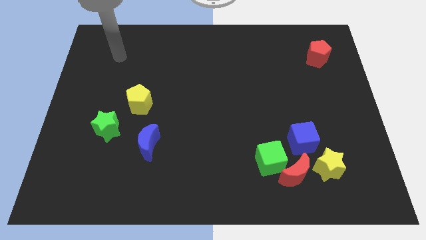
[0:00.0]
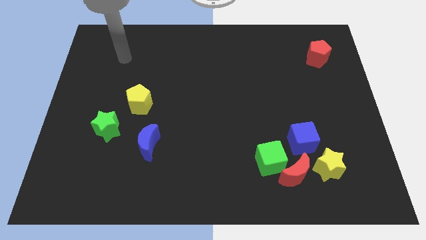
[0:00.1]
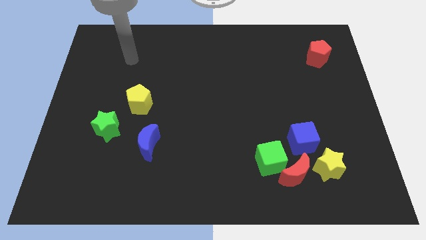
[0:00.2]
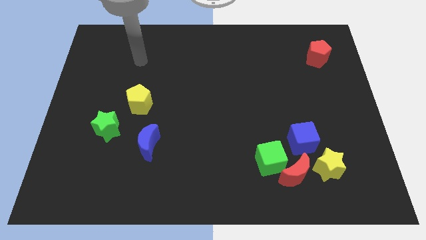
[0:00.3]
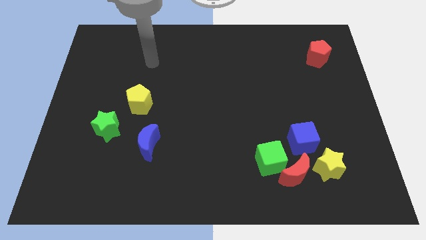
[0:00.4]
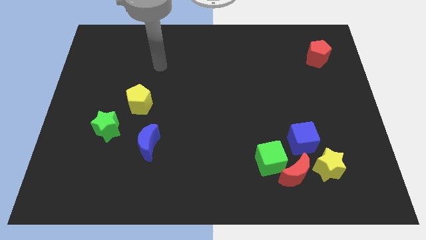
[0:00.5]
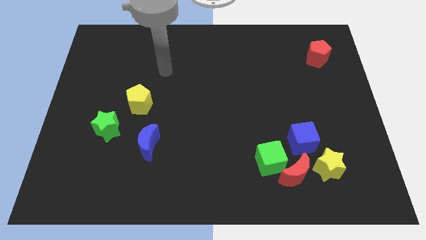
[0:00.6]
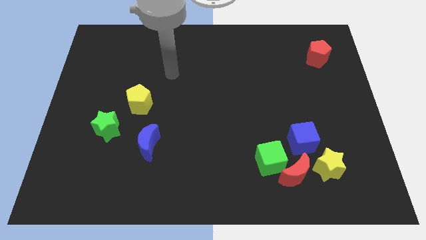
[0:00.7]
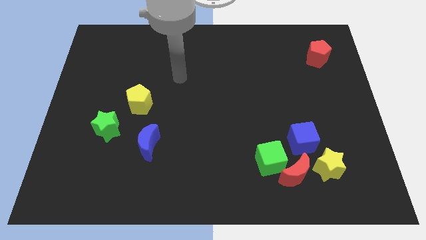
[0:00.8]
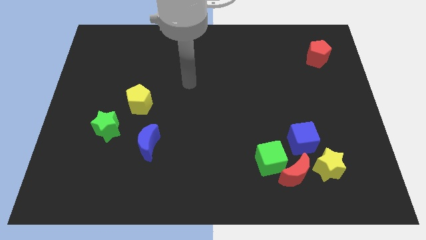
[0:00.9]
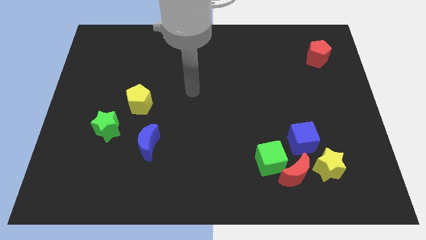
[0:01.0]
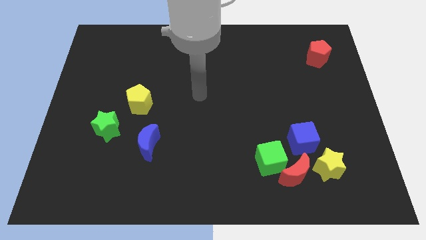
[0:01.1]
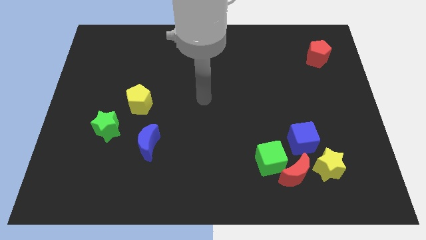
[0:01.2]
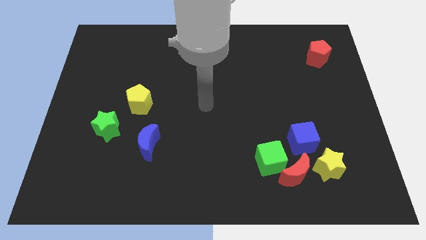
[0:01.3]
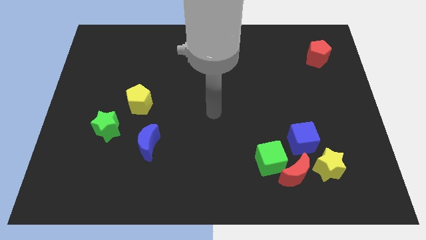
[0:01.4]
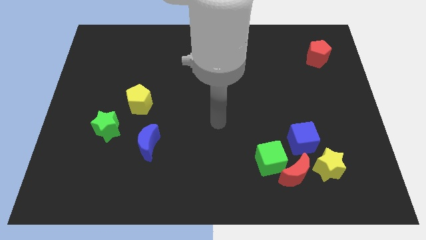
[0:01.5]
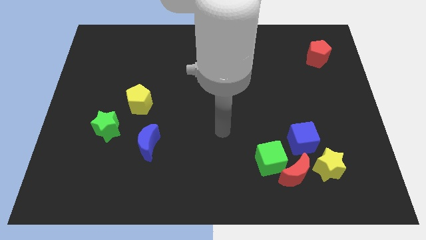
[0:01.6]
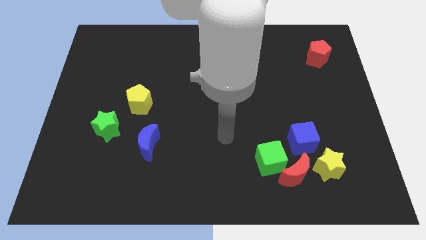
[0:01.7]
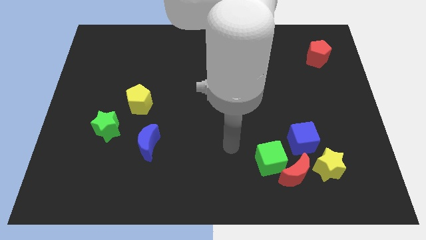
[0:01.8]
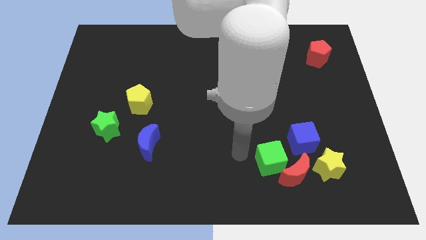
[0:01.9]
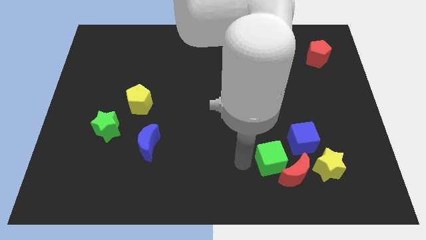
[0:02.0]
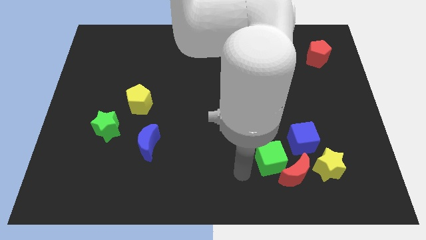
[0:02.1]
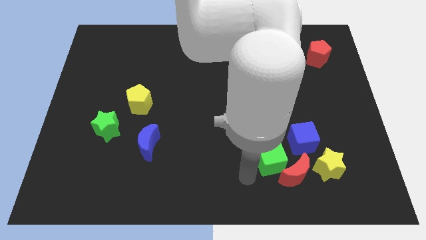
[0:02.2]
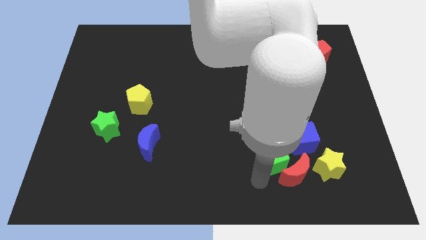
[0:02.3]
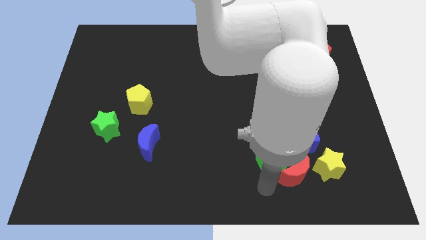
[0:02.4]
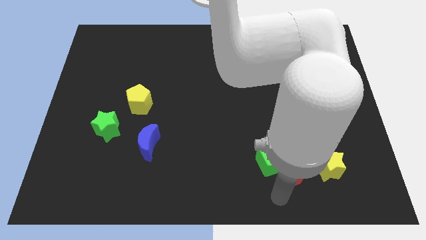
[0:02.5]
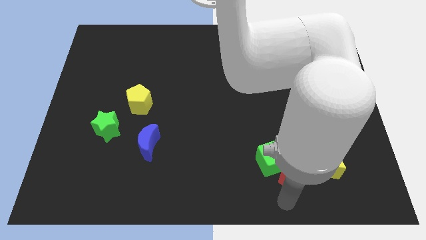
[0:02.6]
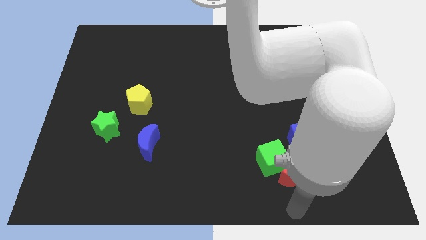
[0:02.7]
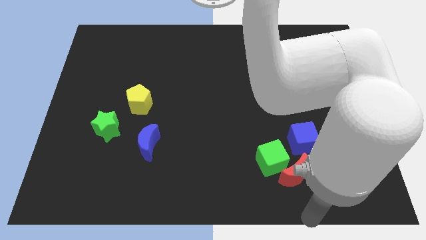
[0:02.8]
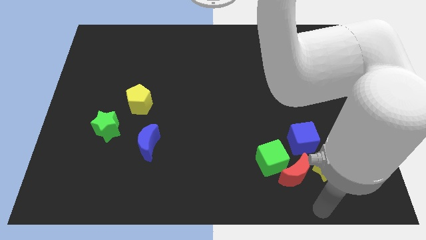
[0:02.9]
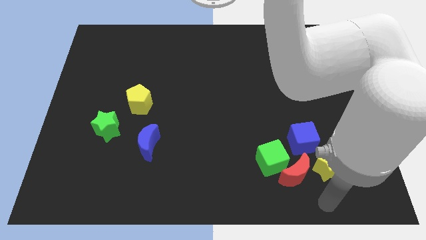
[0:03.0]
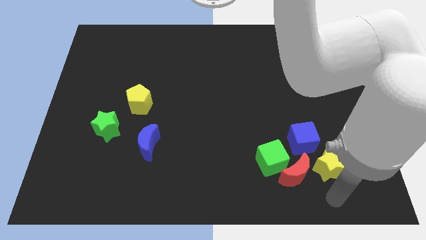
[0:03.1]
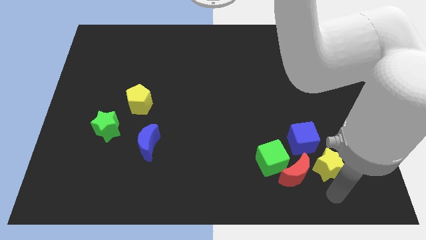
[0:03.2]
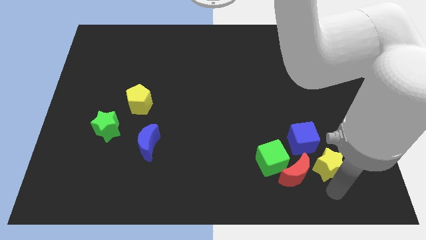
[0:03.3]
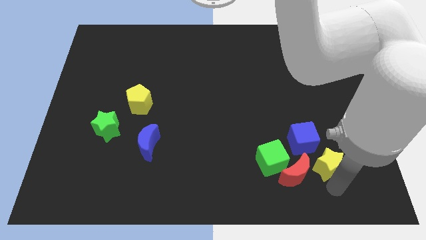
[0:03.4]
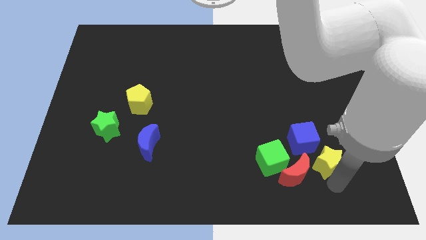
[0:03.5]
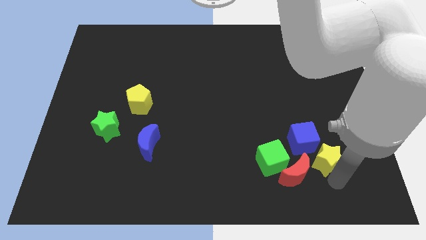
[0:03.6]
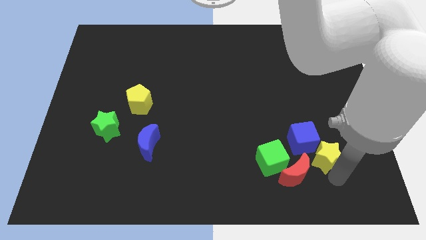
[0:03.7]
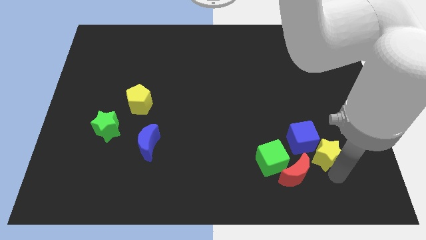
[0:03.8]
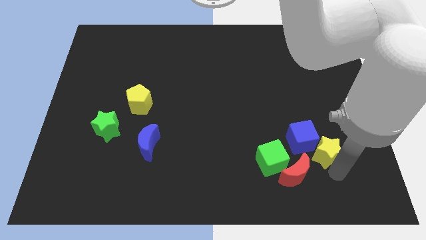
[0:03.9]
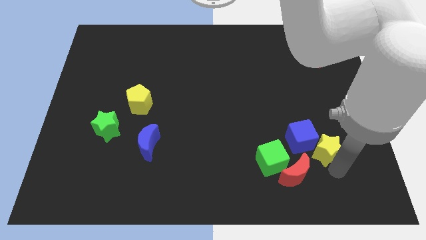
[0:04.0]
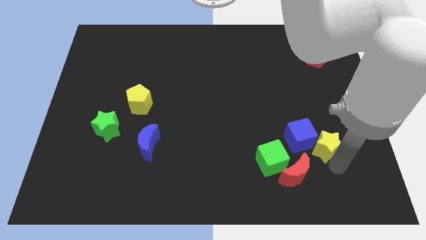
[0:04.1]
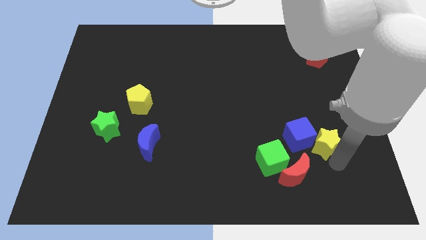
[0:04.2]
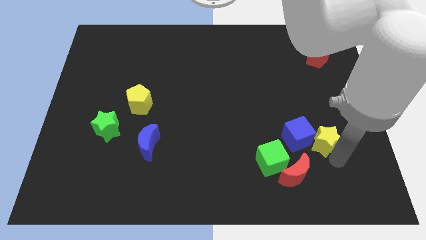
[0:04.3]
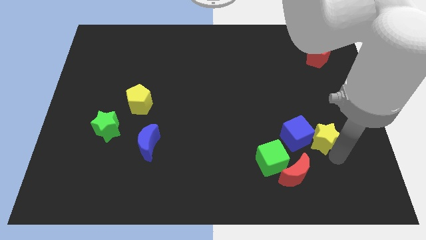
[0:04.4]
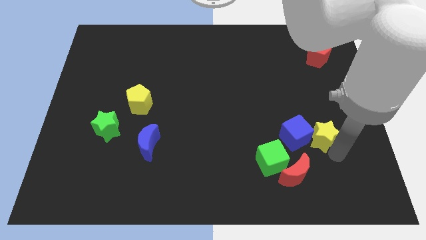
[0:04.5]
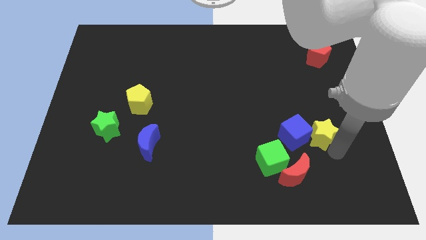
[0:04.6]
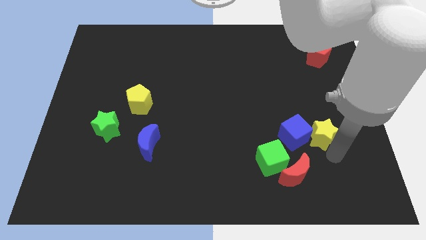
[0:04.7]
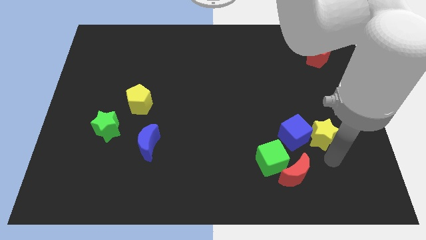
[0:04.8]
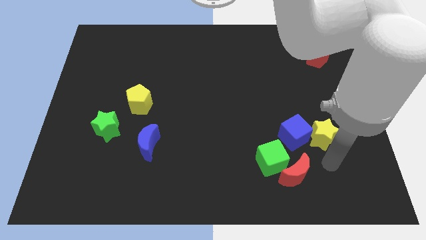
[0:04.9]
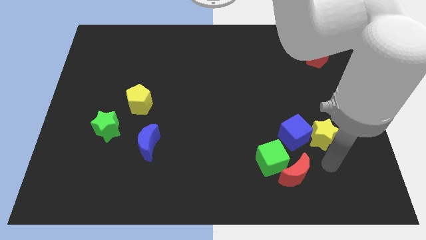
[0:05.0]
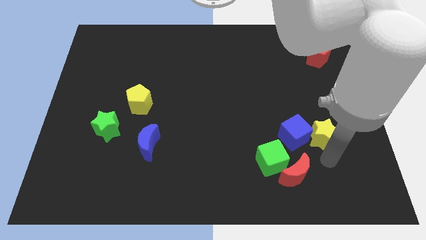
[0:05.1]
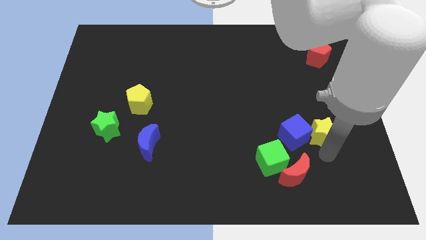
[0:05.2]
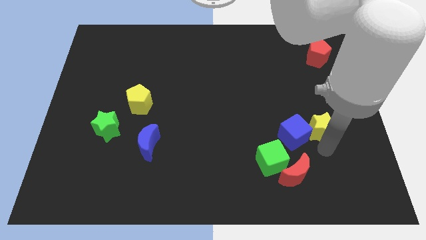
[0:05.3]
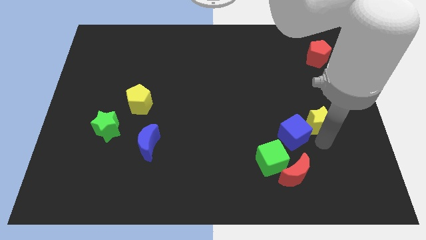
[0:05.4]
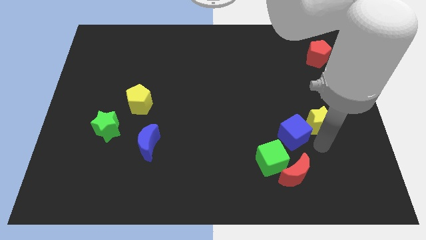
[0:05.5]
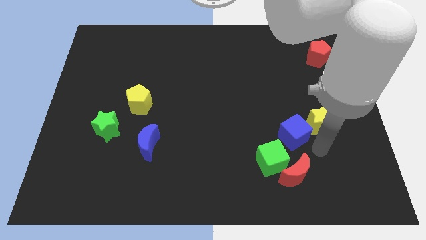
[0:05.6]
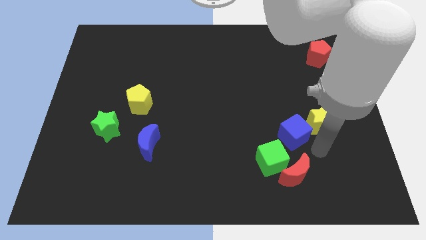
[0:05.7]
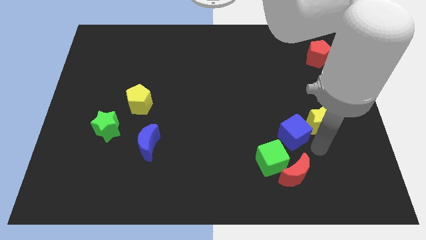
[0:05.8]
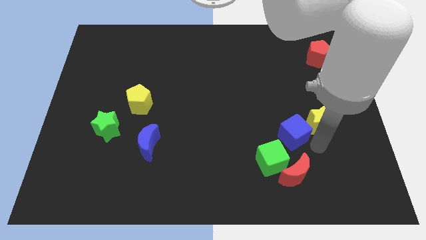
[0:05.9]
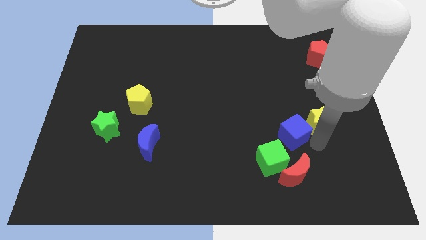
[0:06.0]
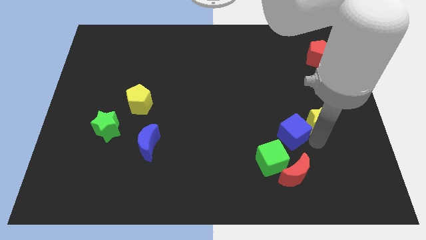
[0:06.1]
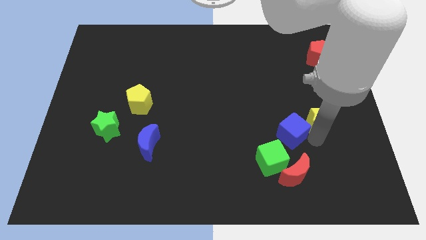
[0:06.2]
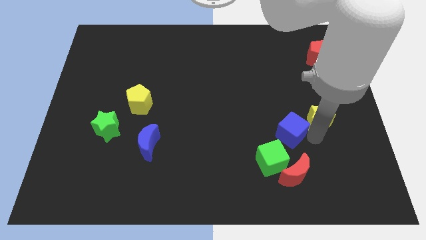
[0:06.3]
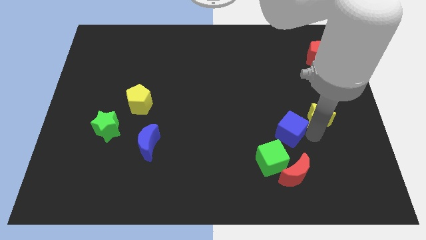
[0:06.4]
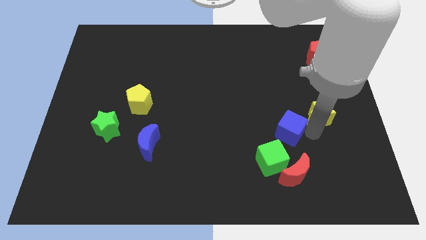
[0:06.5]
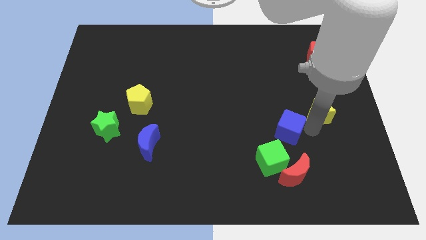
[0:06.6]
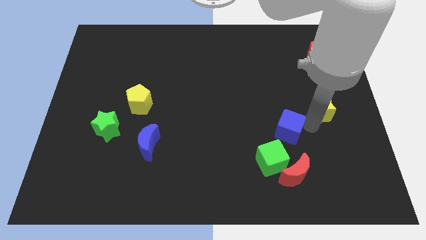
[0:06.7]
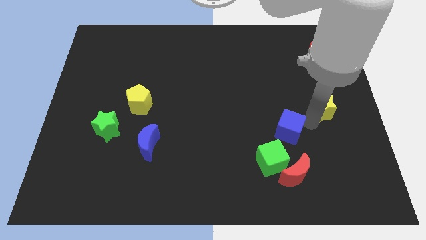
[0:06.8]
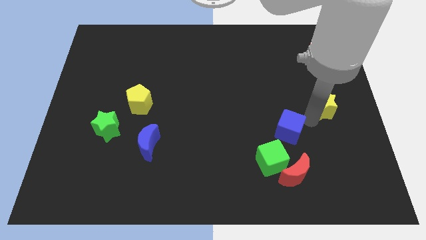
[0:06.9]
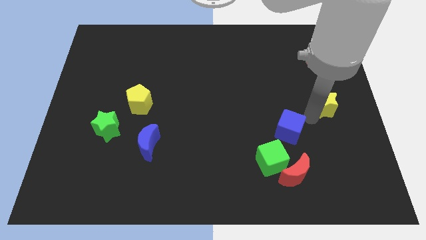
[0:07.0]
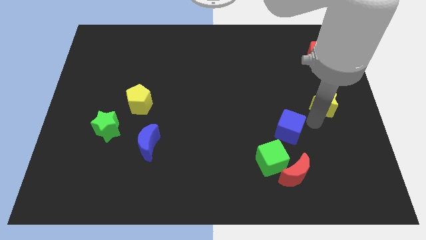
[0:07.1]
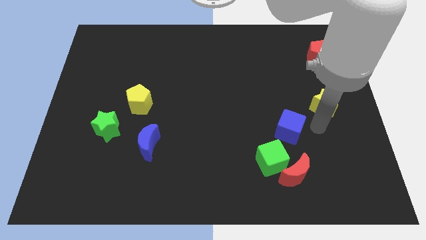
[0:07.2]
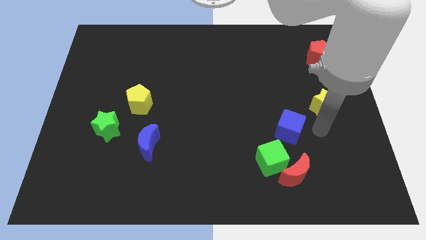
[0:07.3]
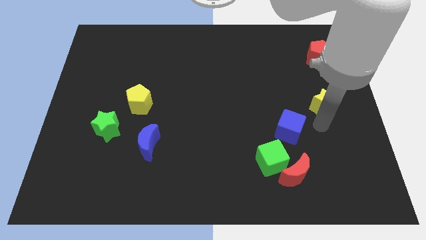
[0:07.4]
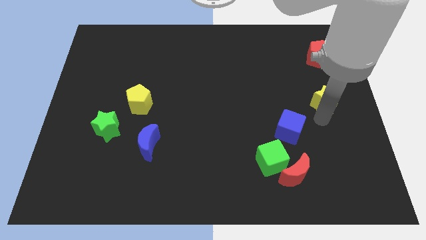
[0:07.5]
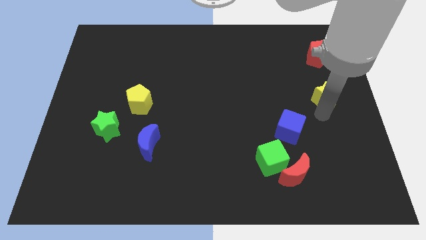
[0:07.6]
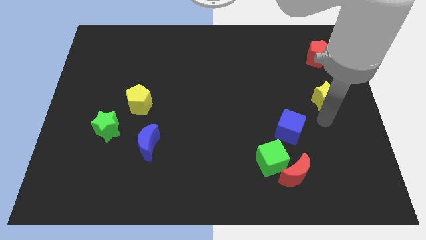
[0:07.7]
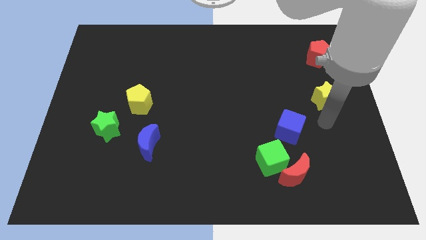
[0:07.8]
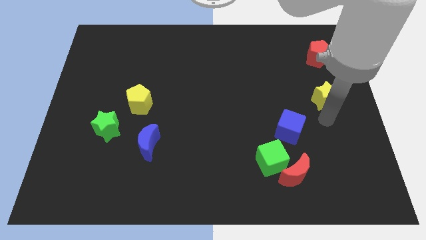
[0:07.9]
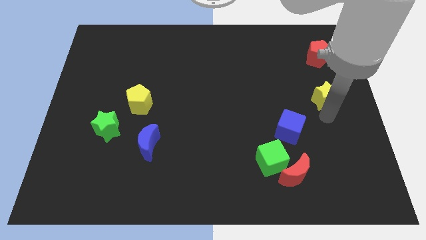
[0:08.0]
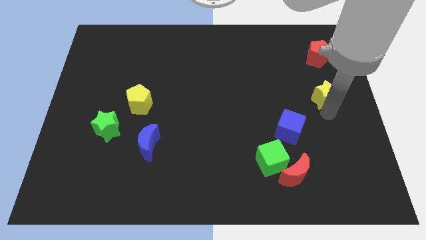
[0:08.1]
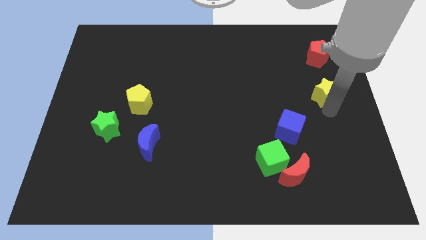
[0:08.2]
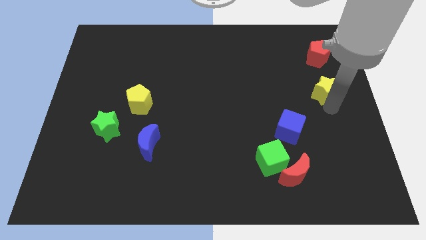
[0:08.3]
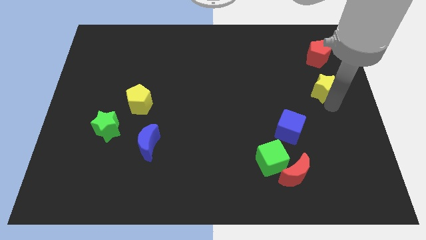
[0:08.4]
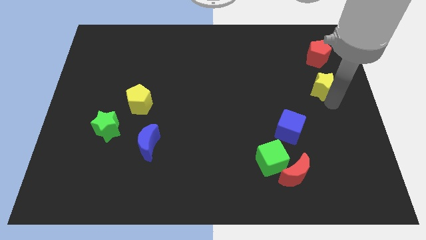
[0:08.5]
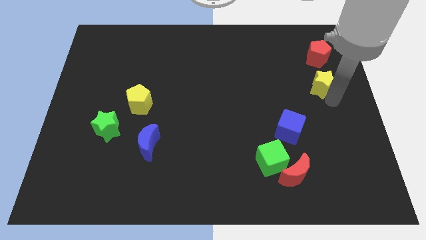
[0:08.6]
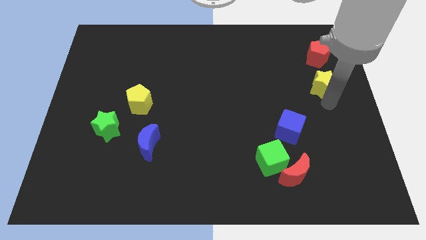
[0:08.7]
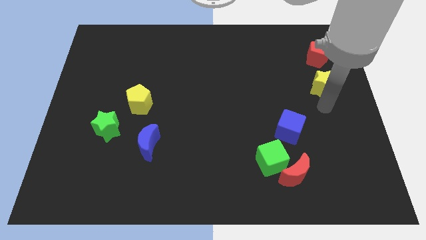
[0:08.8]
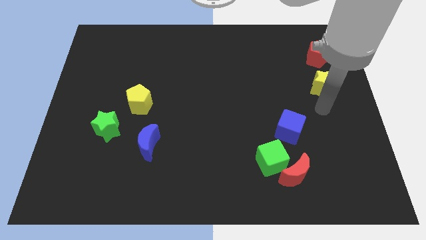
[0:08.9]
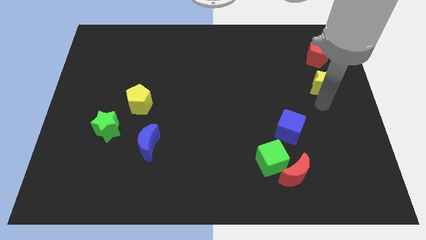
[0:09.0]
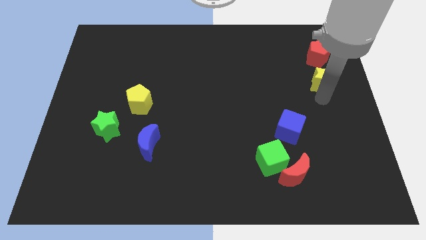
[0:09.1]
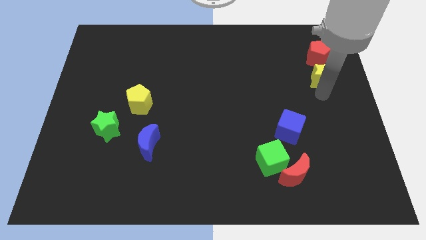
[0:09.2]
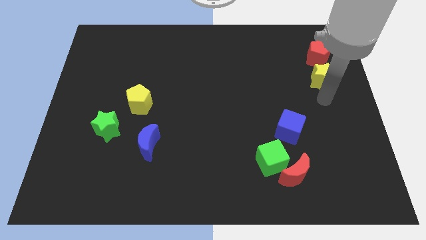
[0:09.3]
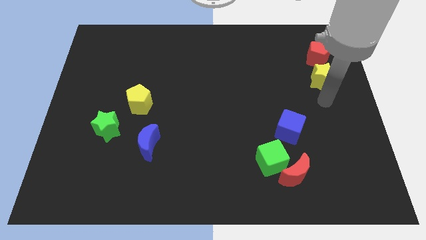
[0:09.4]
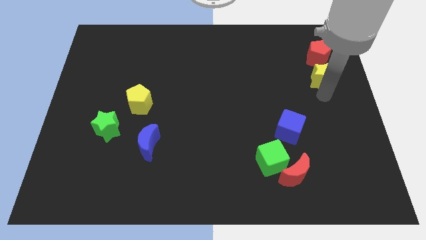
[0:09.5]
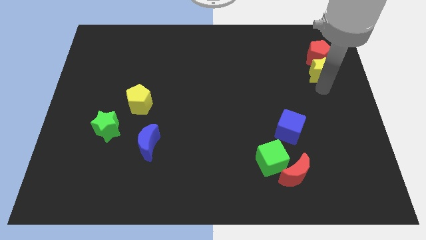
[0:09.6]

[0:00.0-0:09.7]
slide the yellow star to the red pentagon
